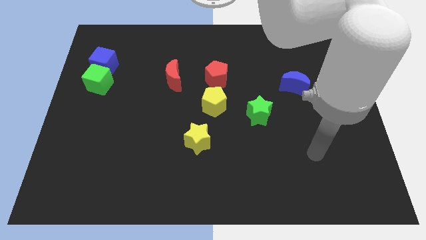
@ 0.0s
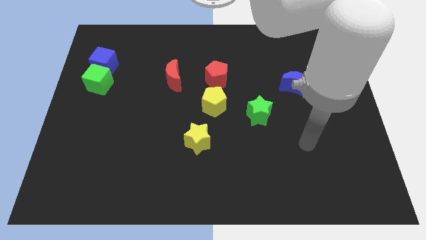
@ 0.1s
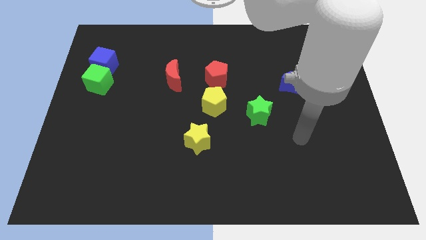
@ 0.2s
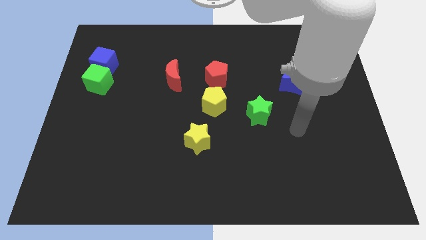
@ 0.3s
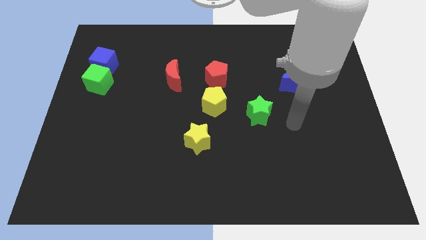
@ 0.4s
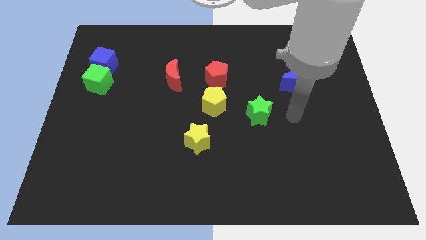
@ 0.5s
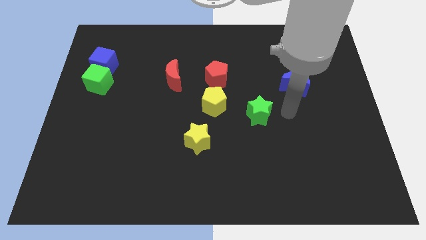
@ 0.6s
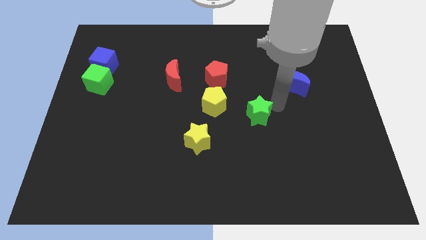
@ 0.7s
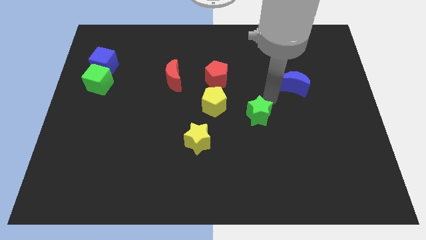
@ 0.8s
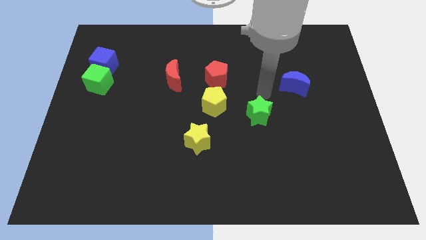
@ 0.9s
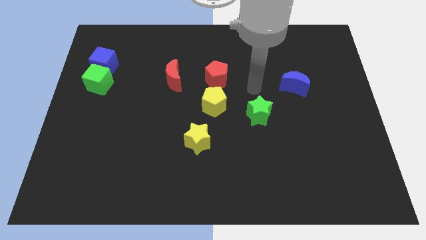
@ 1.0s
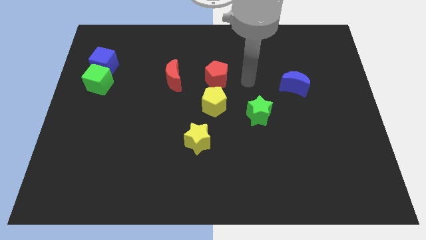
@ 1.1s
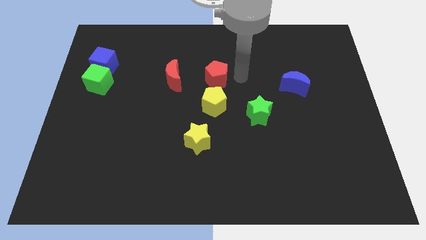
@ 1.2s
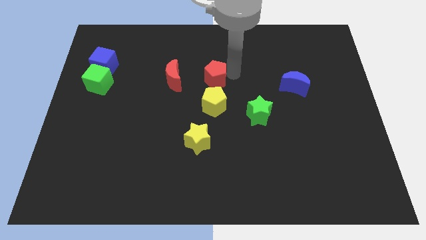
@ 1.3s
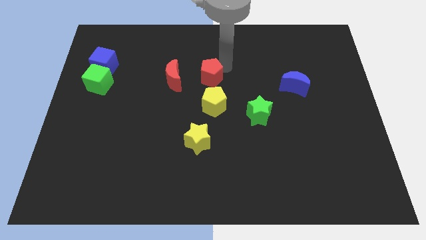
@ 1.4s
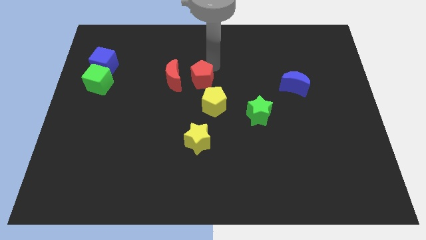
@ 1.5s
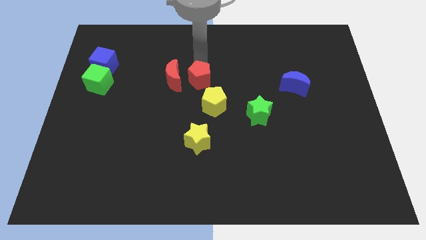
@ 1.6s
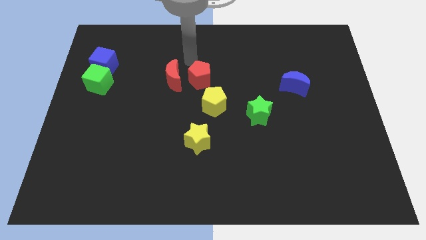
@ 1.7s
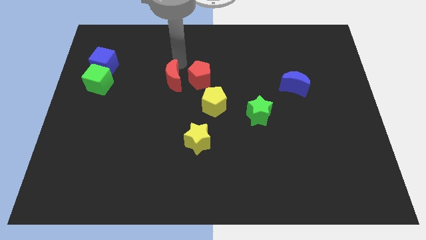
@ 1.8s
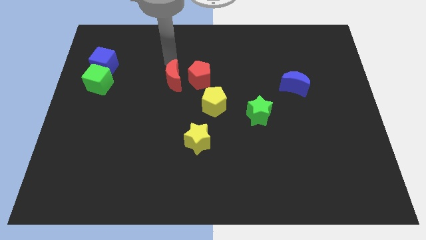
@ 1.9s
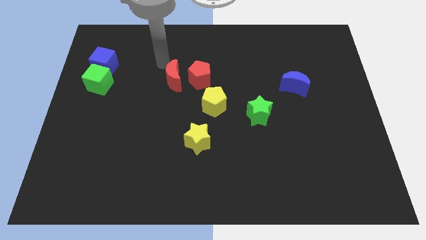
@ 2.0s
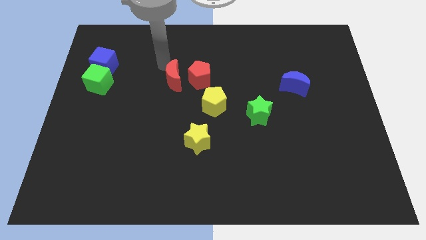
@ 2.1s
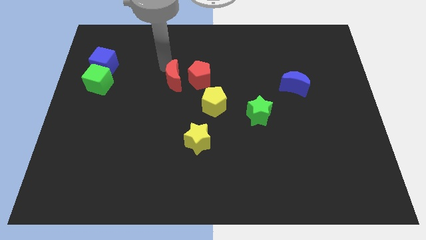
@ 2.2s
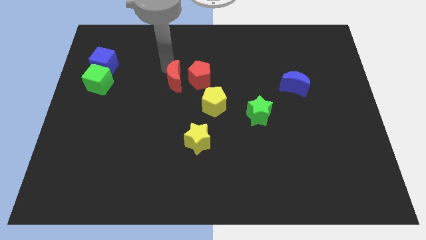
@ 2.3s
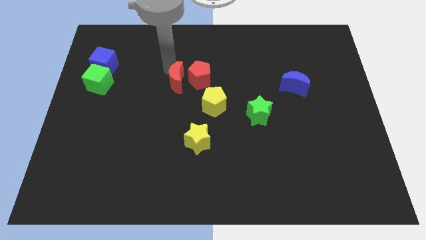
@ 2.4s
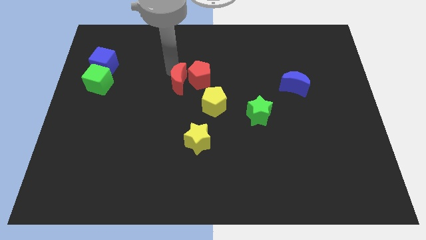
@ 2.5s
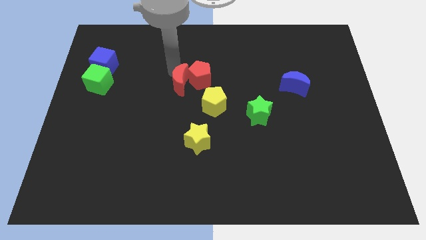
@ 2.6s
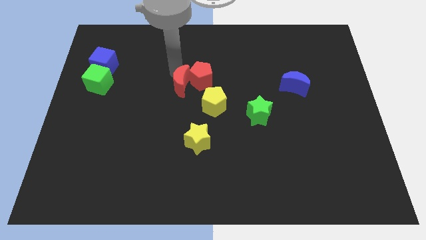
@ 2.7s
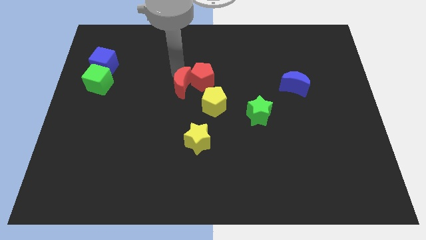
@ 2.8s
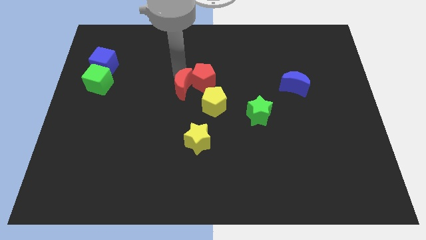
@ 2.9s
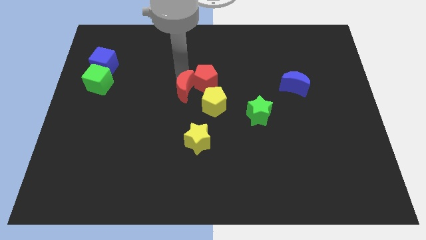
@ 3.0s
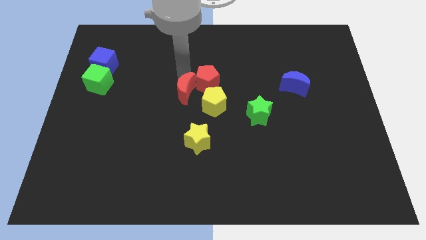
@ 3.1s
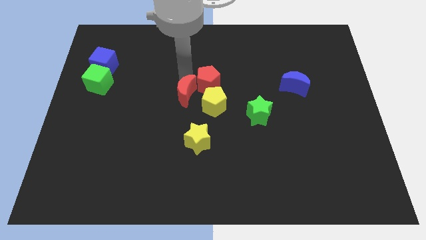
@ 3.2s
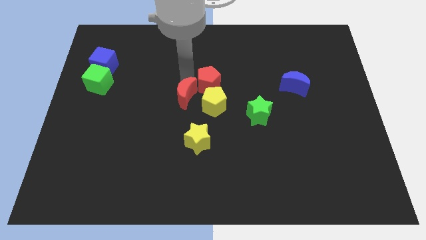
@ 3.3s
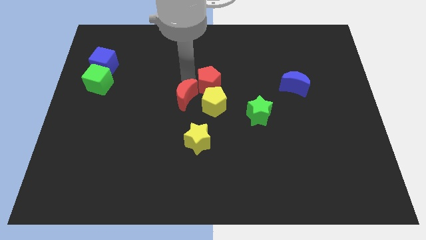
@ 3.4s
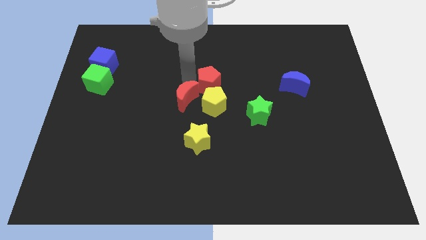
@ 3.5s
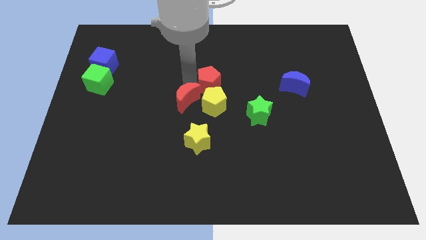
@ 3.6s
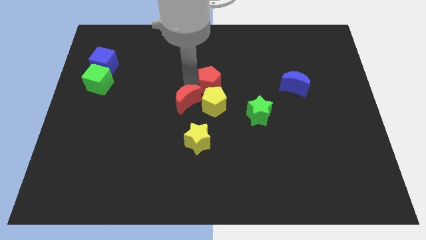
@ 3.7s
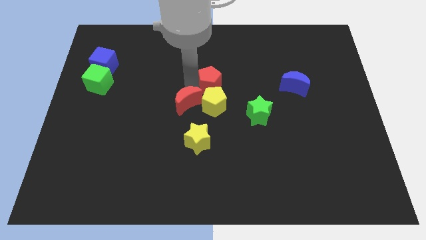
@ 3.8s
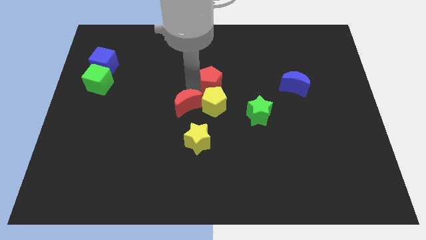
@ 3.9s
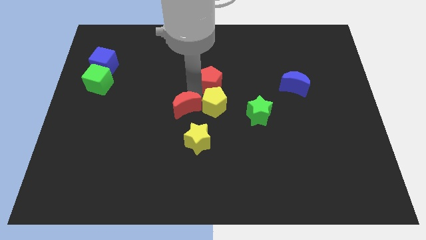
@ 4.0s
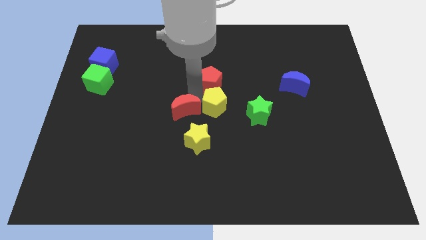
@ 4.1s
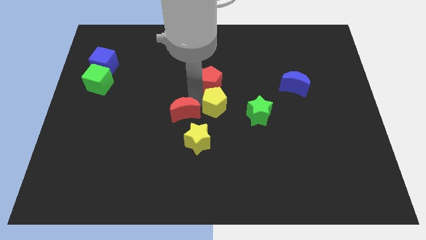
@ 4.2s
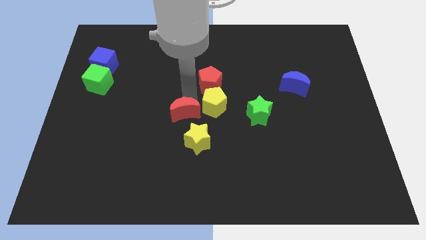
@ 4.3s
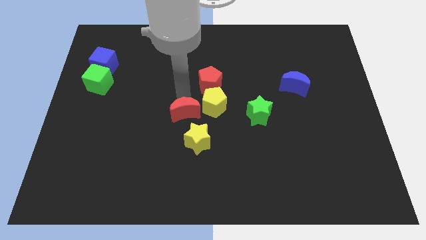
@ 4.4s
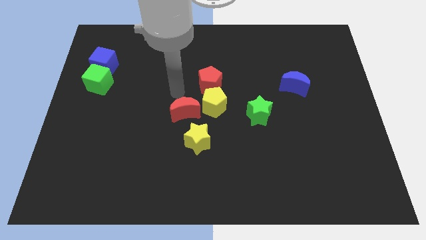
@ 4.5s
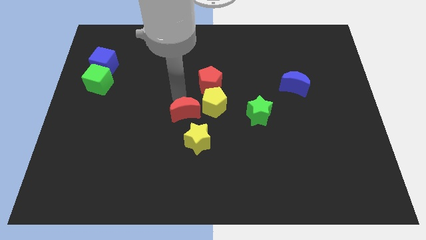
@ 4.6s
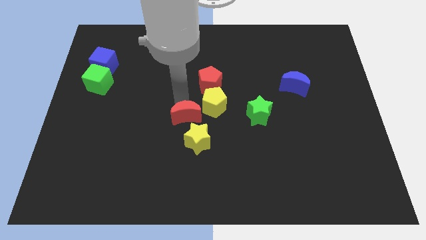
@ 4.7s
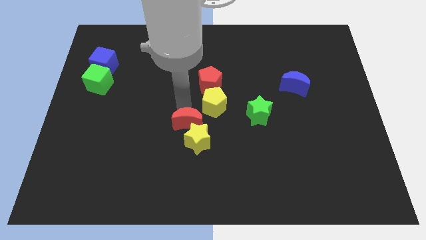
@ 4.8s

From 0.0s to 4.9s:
move the red moon towards the yellow star

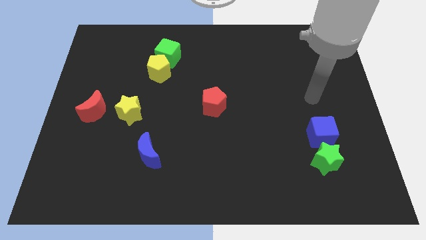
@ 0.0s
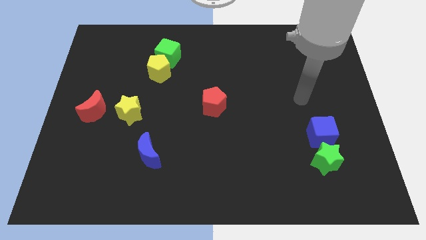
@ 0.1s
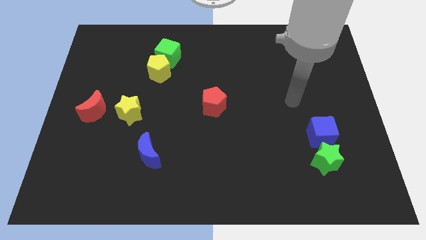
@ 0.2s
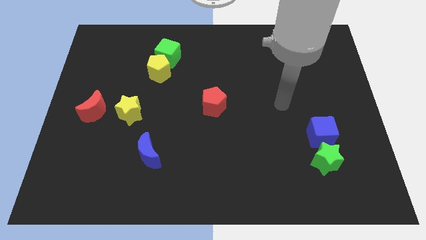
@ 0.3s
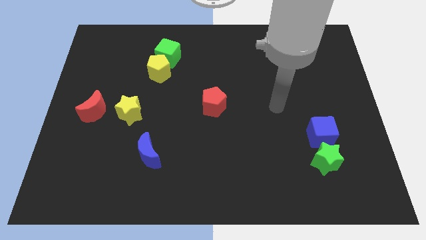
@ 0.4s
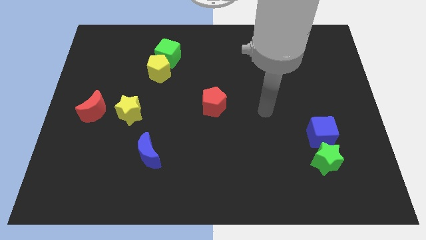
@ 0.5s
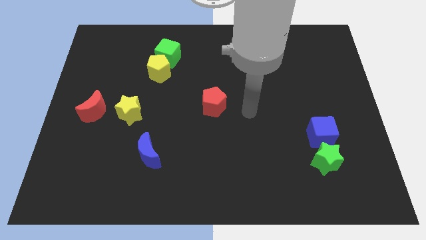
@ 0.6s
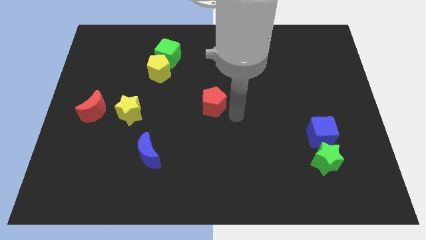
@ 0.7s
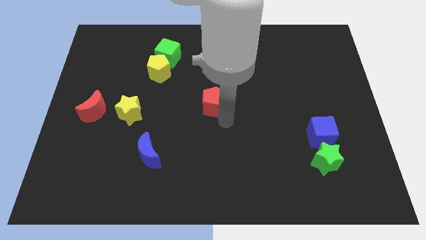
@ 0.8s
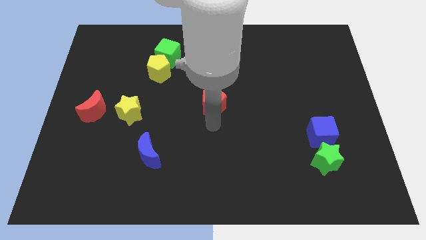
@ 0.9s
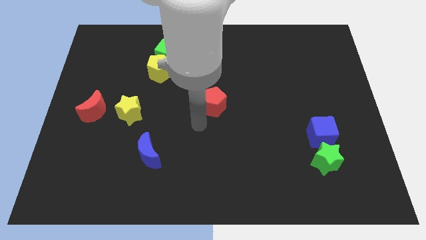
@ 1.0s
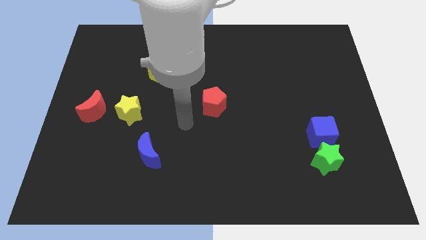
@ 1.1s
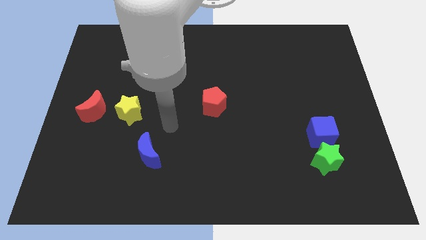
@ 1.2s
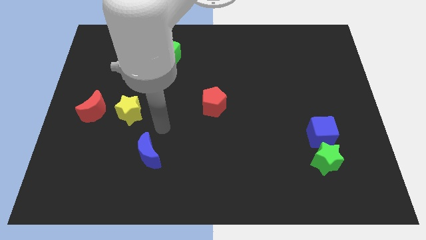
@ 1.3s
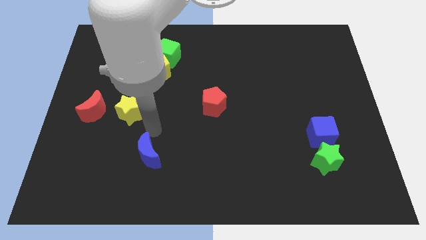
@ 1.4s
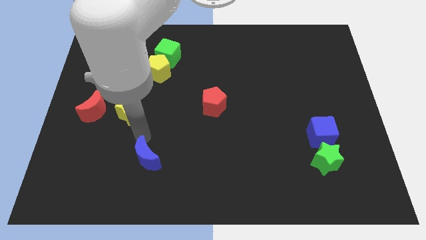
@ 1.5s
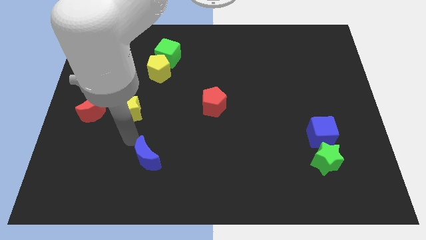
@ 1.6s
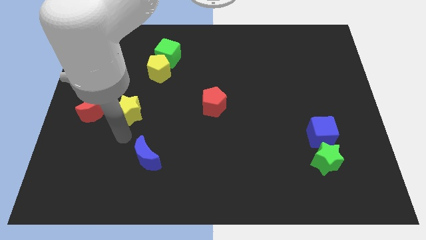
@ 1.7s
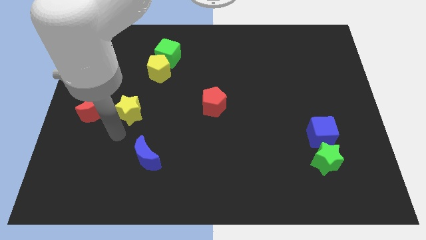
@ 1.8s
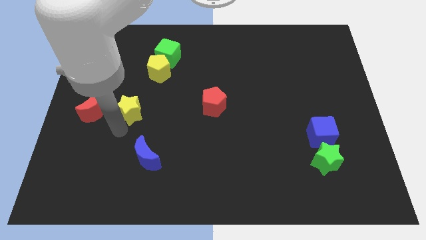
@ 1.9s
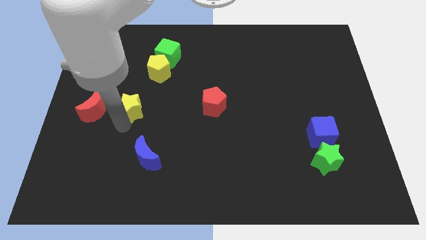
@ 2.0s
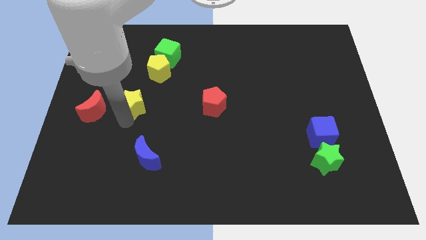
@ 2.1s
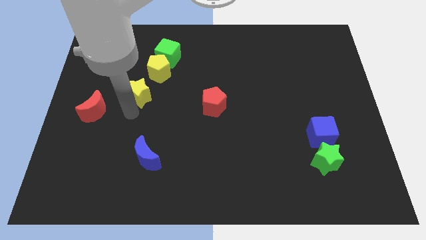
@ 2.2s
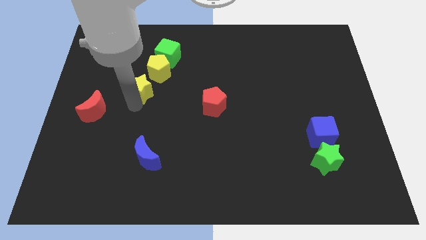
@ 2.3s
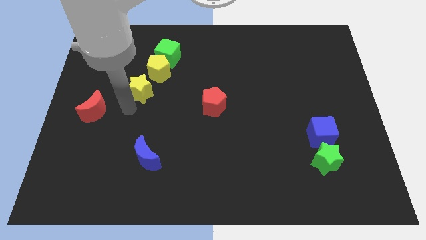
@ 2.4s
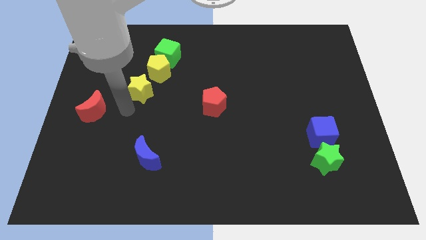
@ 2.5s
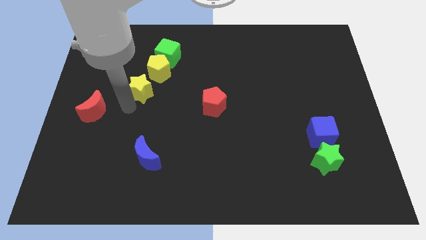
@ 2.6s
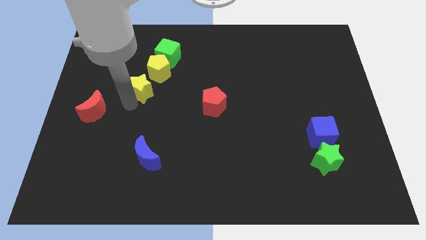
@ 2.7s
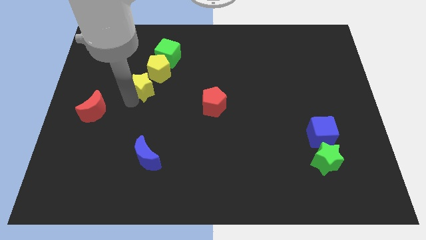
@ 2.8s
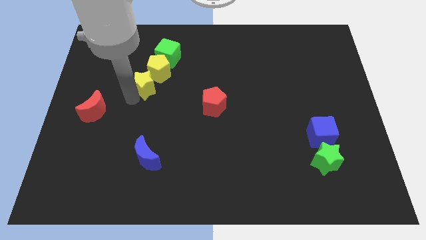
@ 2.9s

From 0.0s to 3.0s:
push the yellow star towards the yellow pentagon
